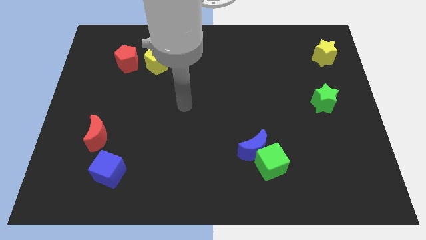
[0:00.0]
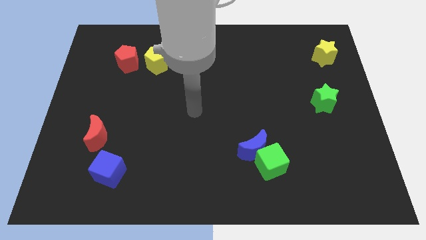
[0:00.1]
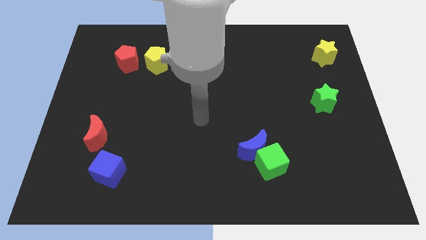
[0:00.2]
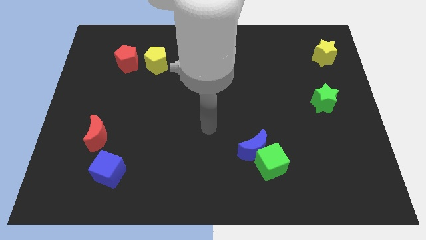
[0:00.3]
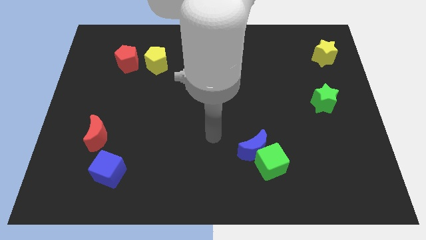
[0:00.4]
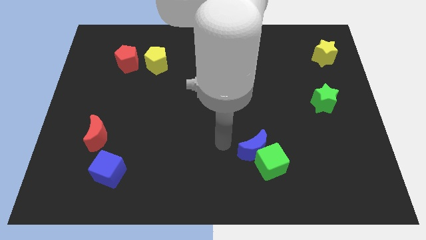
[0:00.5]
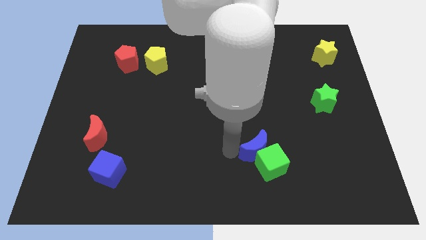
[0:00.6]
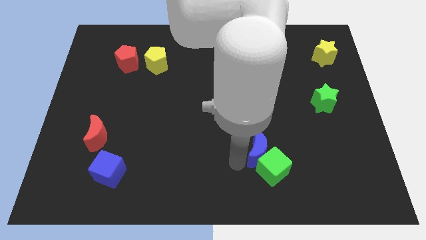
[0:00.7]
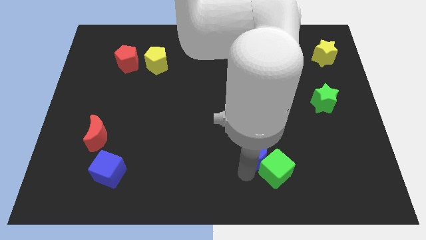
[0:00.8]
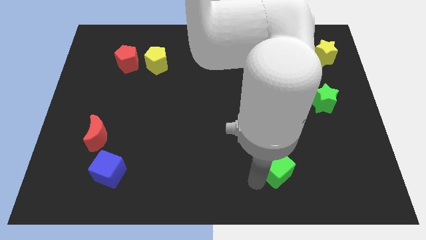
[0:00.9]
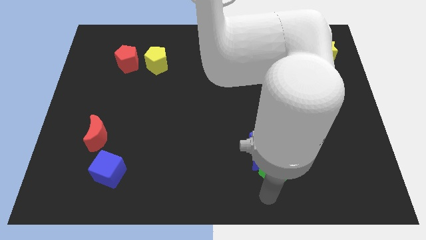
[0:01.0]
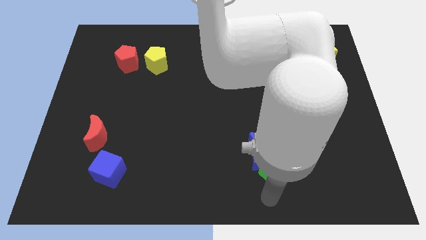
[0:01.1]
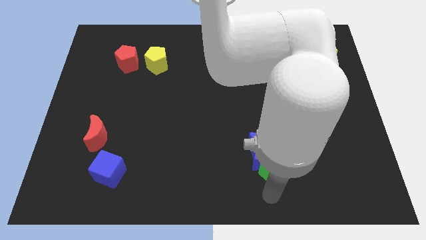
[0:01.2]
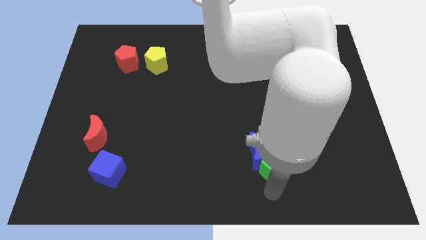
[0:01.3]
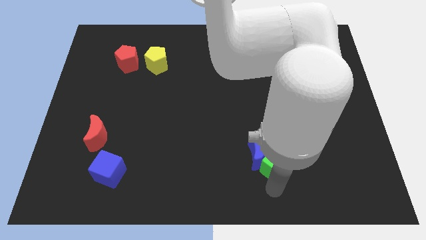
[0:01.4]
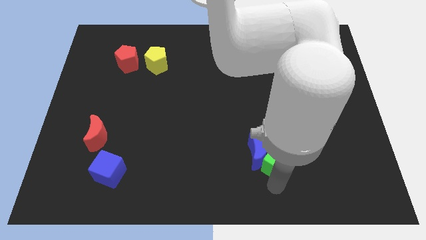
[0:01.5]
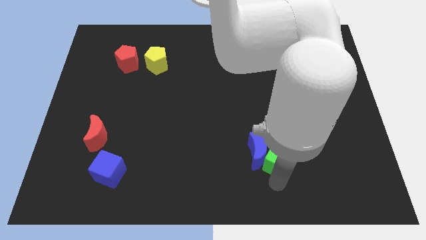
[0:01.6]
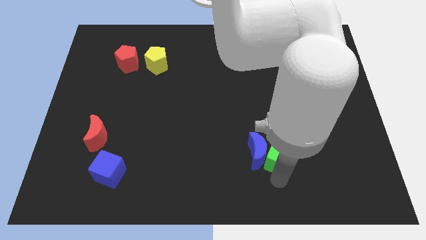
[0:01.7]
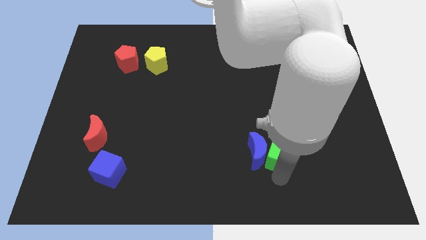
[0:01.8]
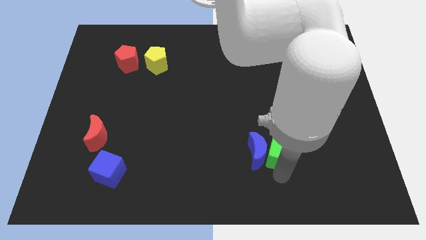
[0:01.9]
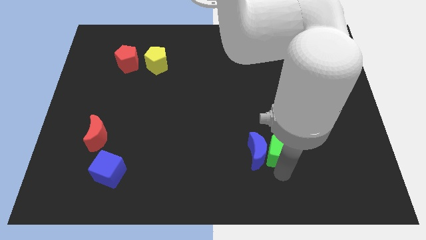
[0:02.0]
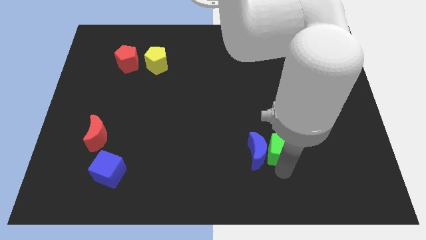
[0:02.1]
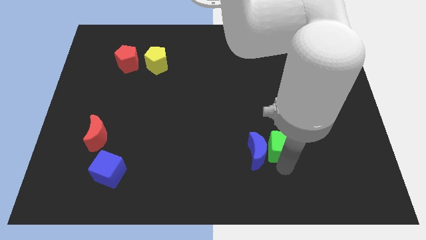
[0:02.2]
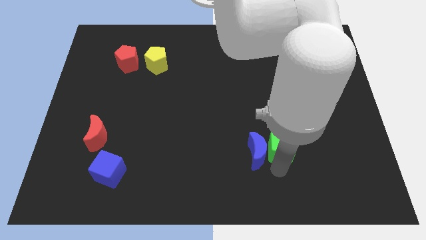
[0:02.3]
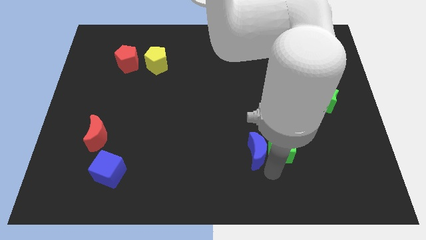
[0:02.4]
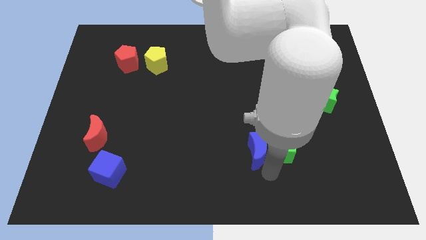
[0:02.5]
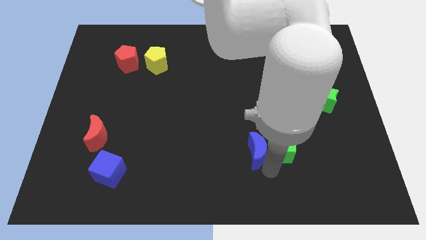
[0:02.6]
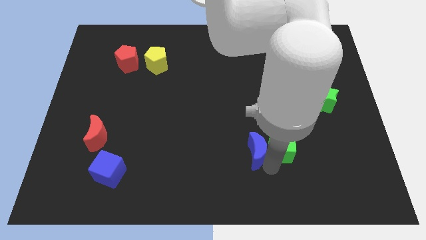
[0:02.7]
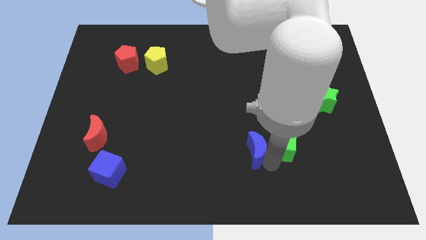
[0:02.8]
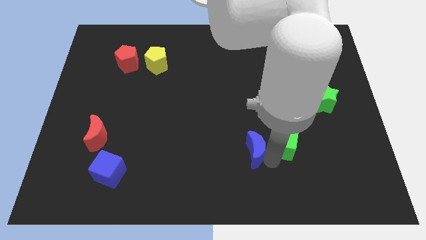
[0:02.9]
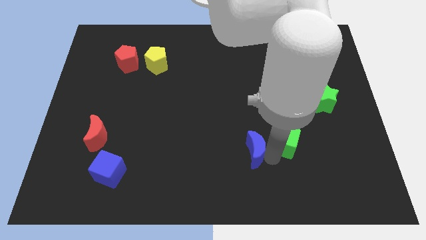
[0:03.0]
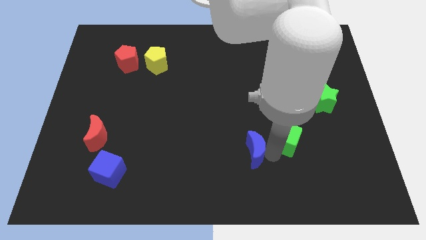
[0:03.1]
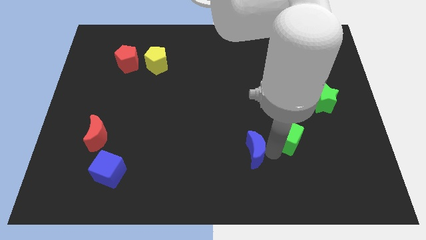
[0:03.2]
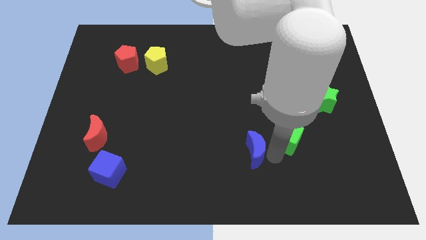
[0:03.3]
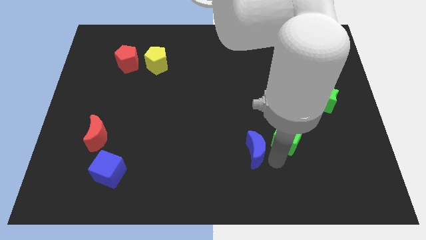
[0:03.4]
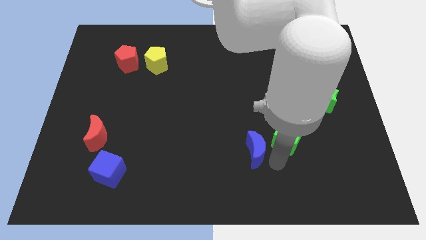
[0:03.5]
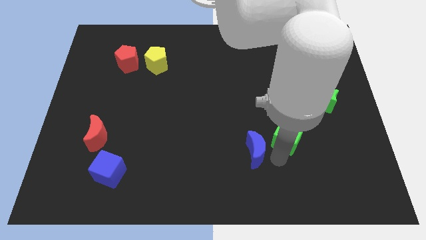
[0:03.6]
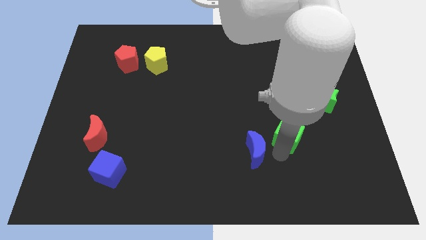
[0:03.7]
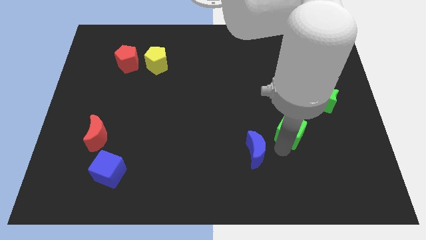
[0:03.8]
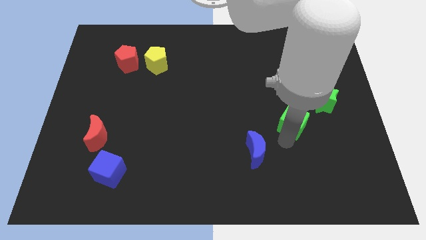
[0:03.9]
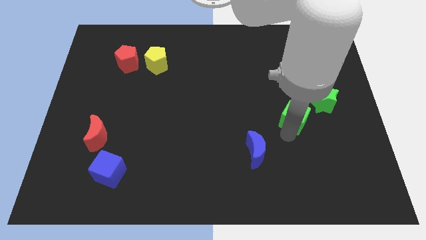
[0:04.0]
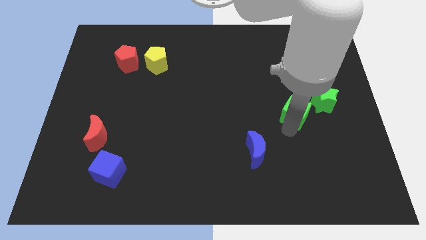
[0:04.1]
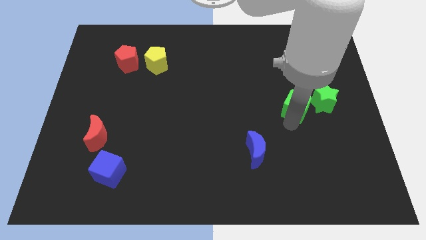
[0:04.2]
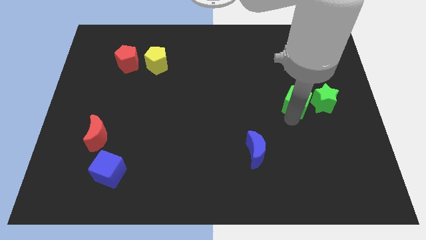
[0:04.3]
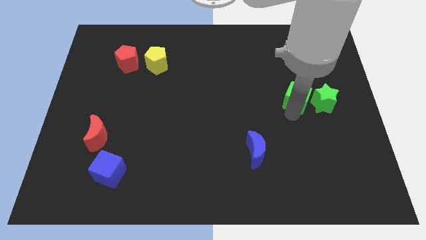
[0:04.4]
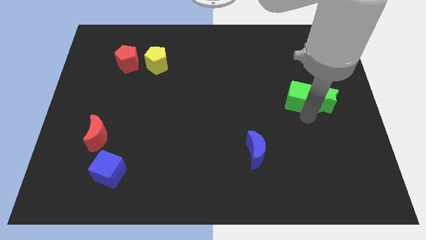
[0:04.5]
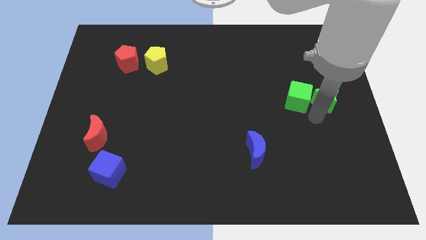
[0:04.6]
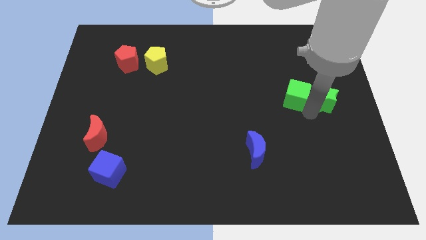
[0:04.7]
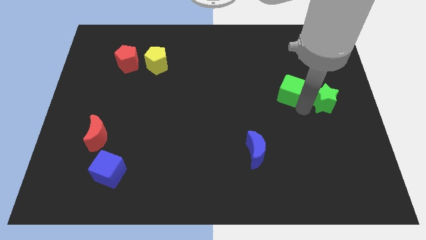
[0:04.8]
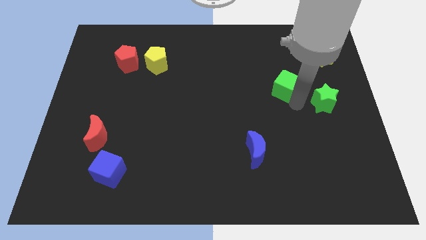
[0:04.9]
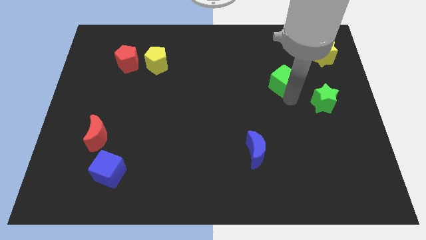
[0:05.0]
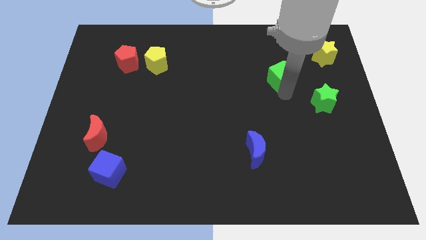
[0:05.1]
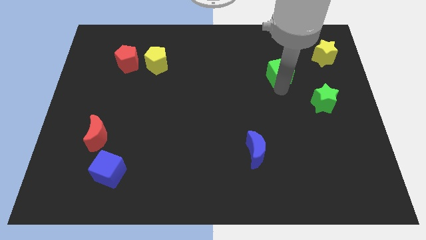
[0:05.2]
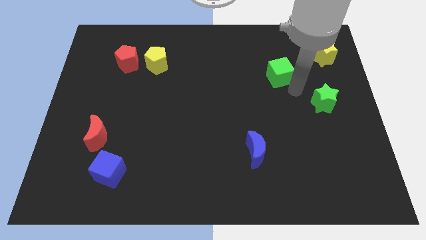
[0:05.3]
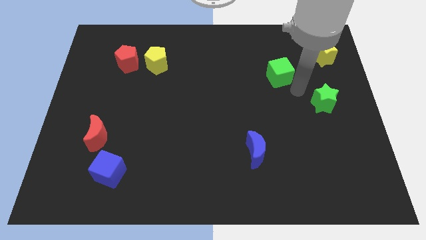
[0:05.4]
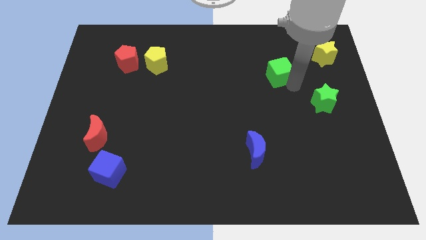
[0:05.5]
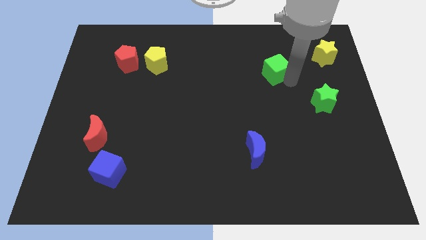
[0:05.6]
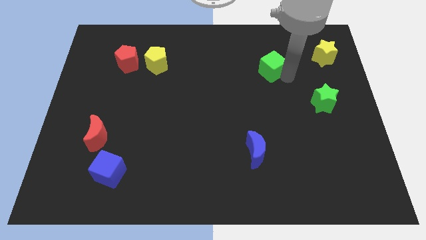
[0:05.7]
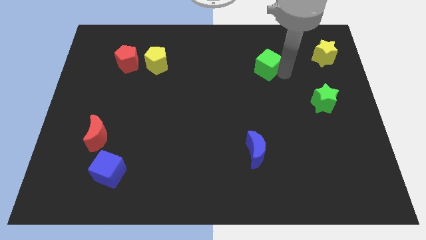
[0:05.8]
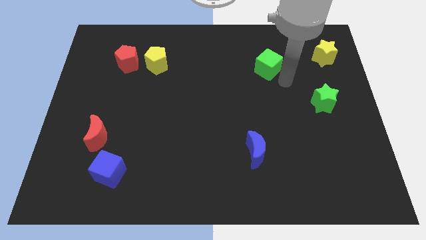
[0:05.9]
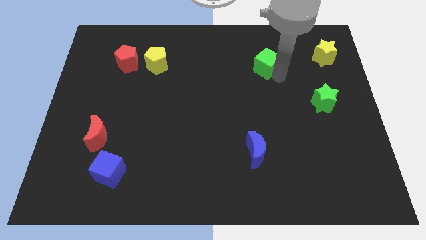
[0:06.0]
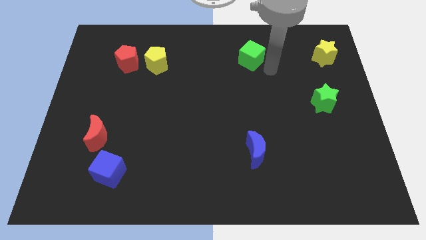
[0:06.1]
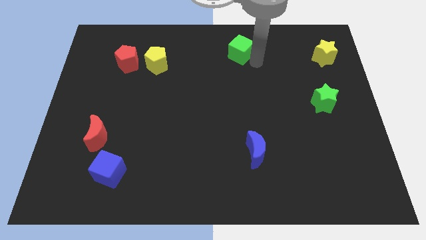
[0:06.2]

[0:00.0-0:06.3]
put the green cube to the top side

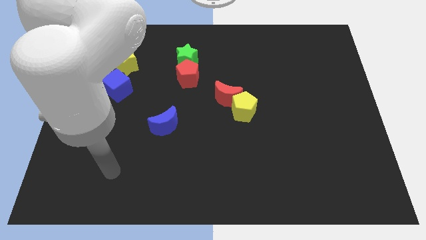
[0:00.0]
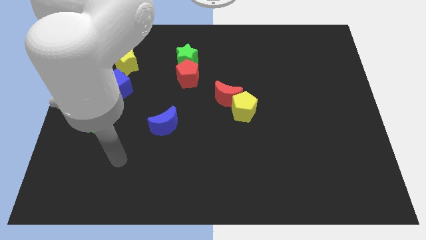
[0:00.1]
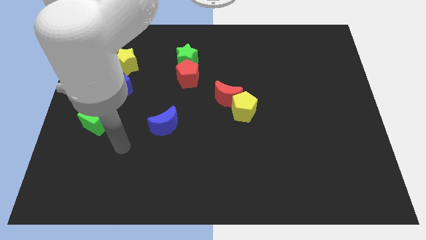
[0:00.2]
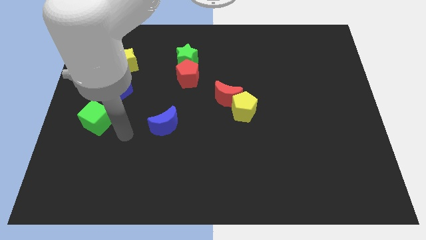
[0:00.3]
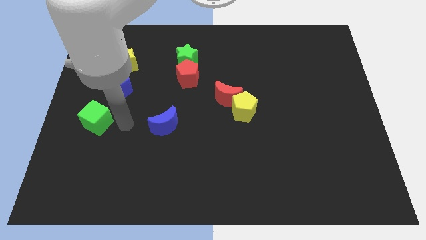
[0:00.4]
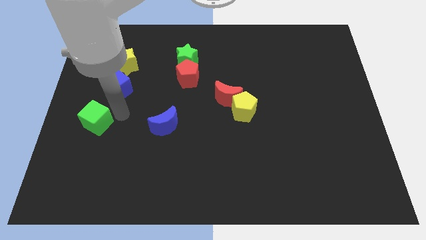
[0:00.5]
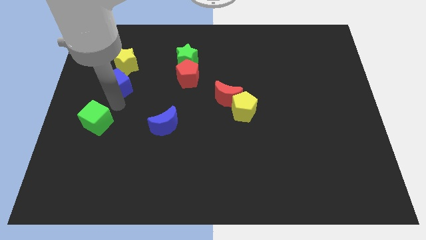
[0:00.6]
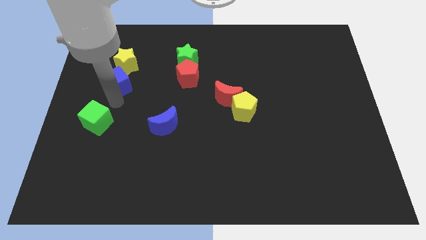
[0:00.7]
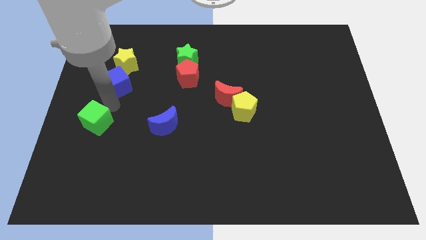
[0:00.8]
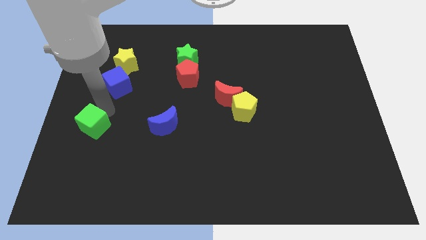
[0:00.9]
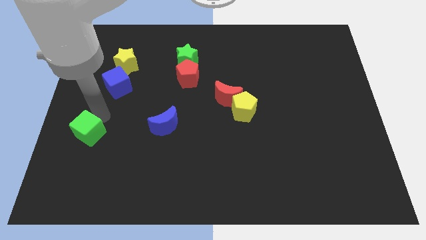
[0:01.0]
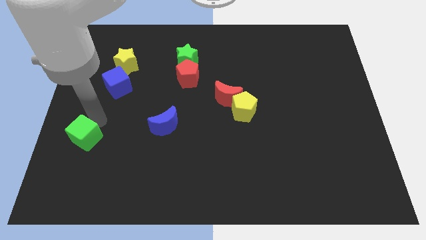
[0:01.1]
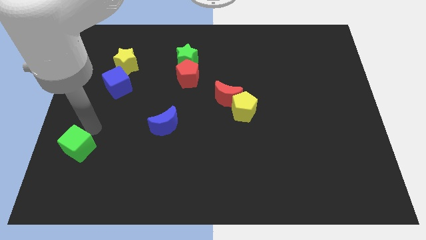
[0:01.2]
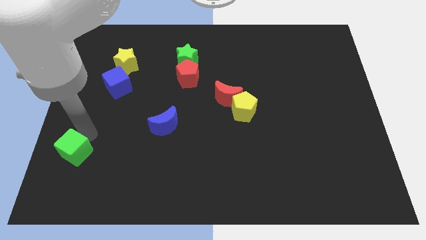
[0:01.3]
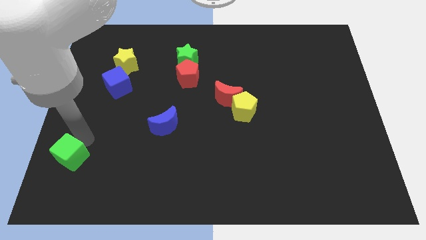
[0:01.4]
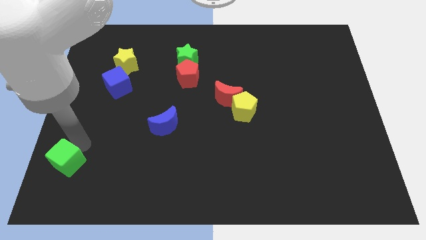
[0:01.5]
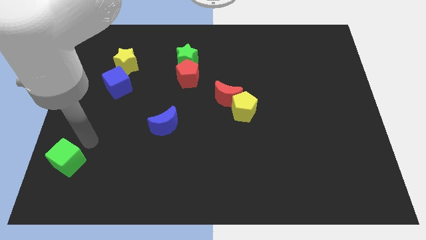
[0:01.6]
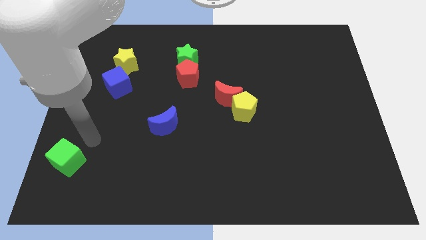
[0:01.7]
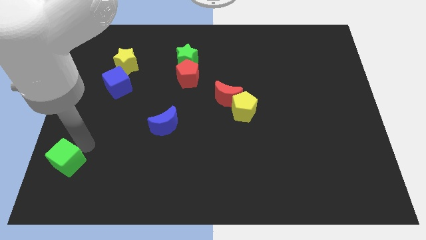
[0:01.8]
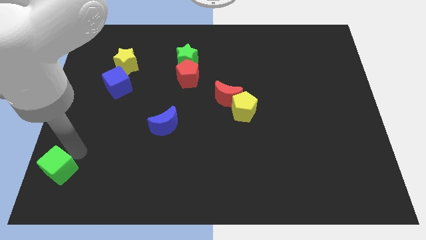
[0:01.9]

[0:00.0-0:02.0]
put the green cube to the bottom left of the board
